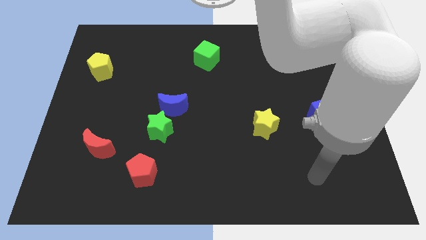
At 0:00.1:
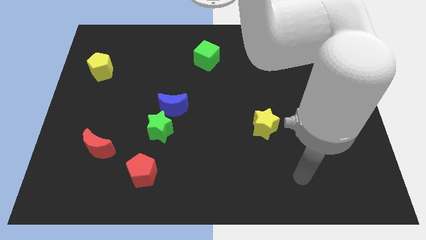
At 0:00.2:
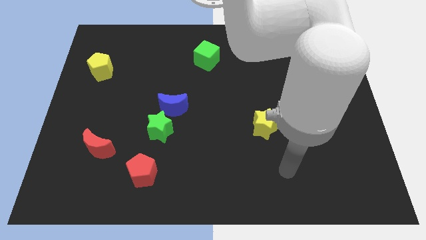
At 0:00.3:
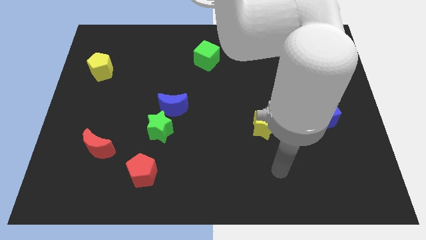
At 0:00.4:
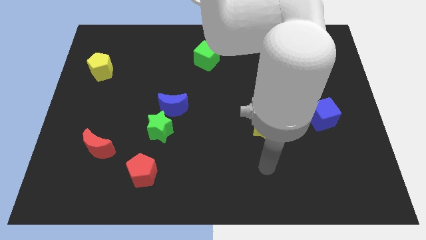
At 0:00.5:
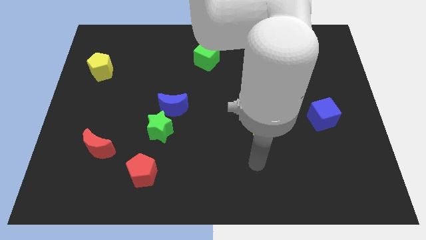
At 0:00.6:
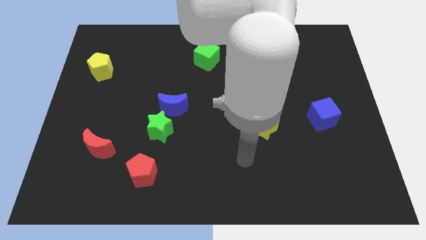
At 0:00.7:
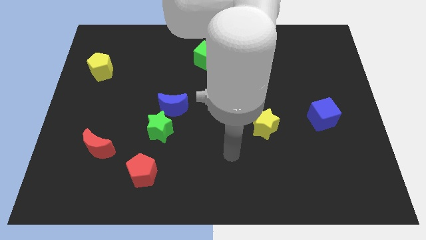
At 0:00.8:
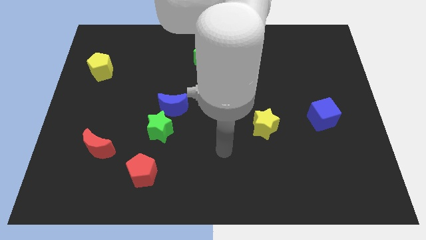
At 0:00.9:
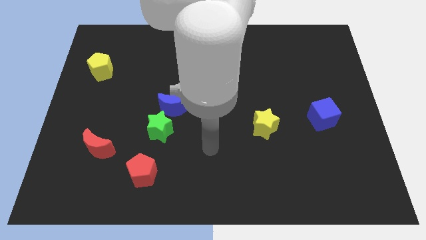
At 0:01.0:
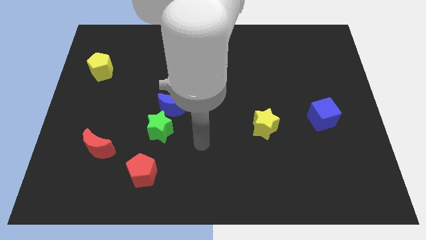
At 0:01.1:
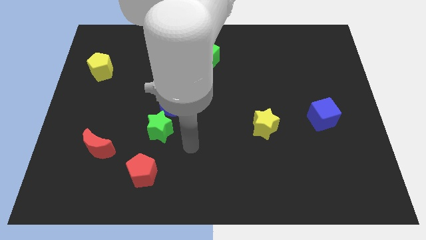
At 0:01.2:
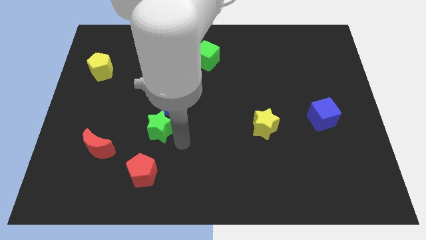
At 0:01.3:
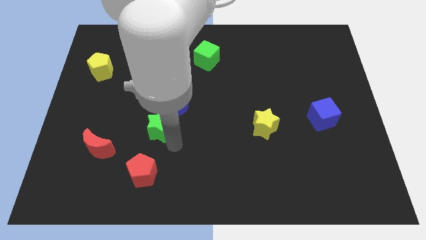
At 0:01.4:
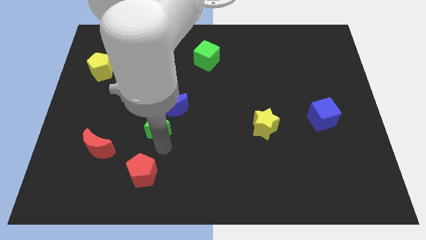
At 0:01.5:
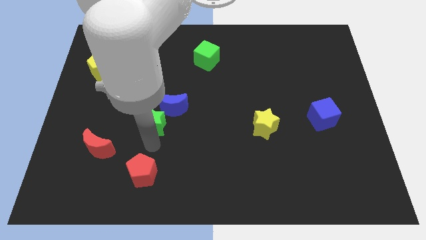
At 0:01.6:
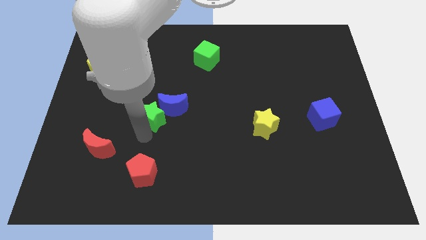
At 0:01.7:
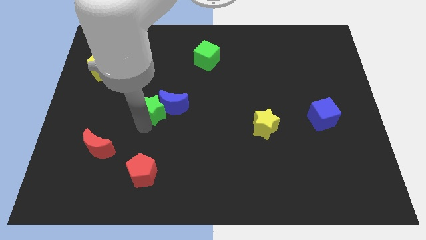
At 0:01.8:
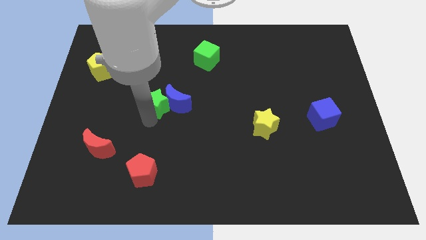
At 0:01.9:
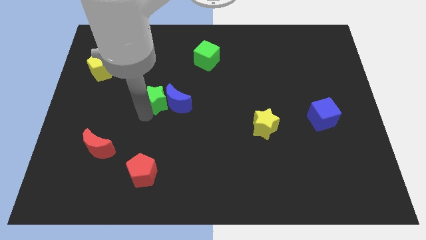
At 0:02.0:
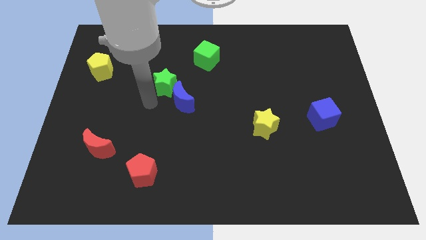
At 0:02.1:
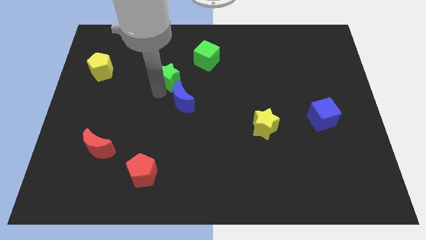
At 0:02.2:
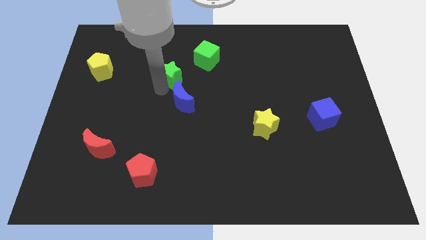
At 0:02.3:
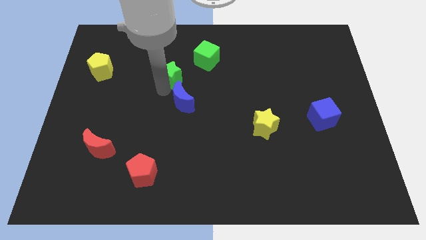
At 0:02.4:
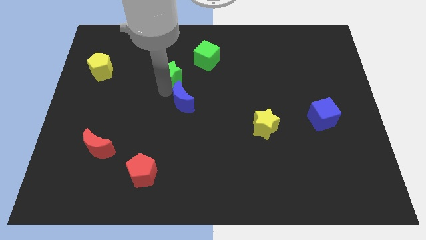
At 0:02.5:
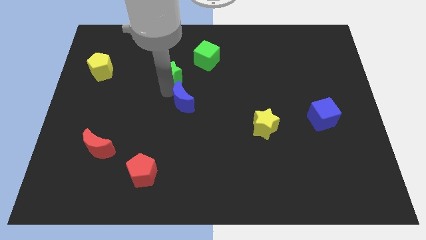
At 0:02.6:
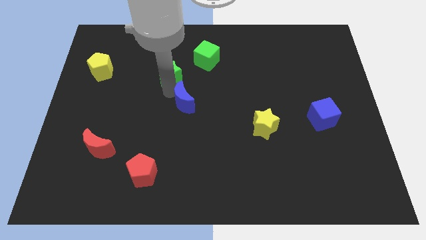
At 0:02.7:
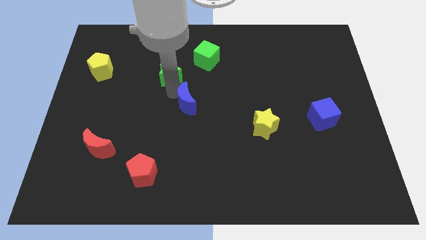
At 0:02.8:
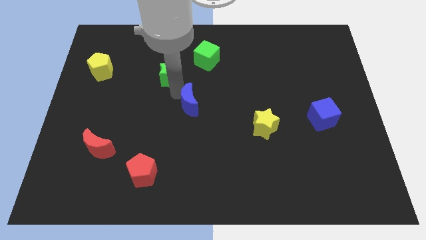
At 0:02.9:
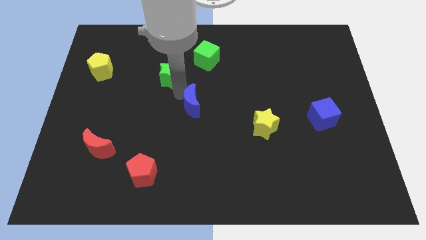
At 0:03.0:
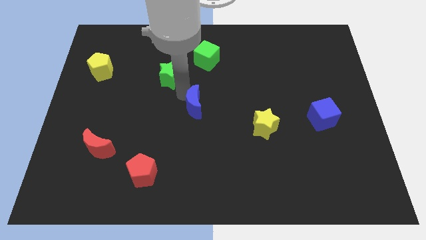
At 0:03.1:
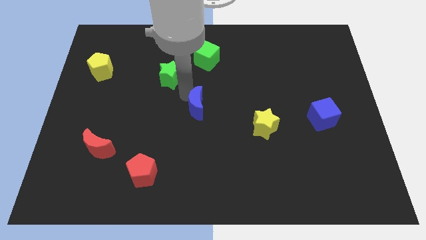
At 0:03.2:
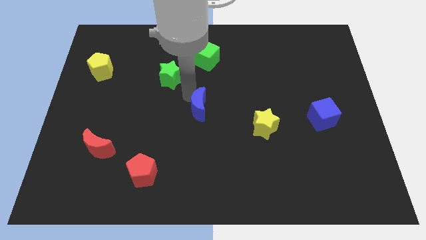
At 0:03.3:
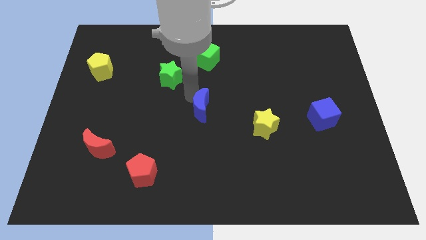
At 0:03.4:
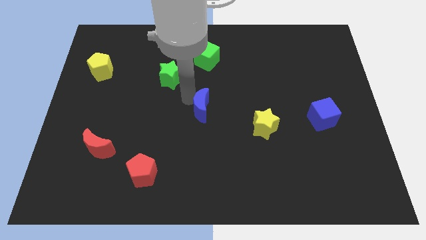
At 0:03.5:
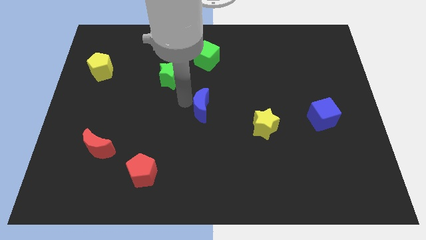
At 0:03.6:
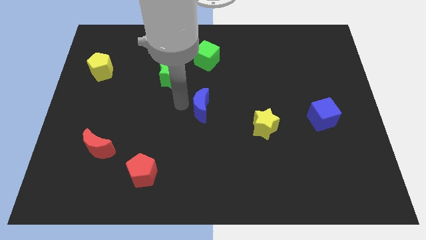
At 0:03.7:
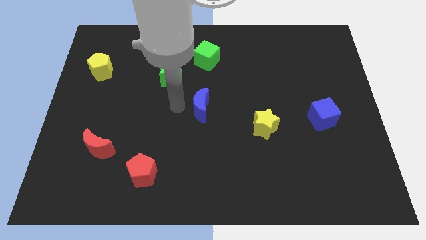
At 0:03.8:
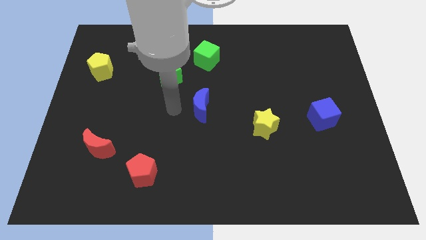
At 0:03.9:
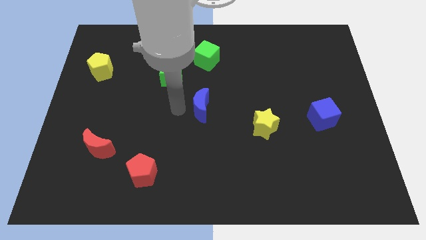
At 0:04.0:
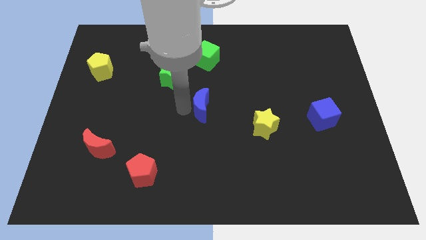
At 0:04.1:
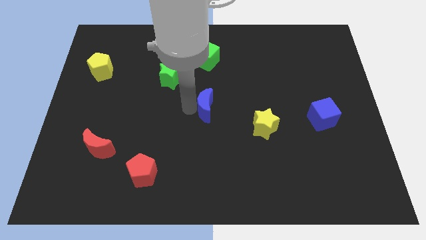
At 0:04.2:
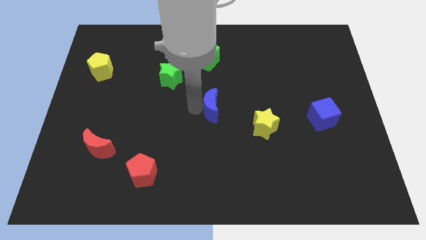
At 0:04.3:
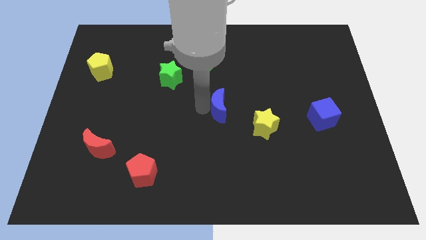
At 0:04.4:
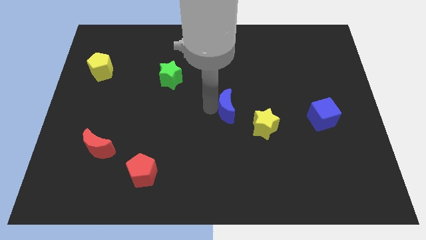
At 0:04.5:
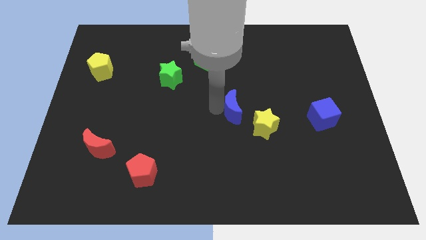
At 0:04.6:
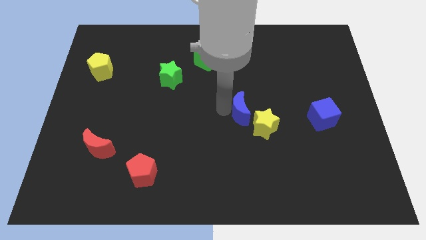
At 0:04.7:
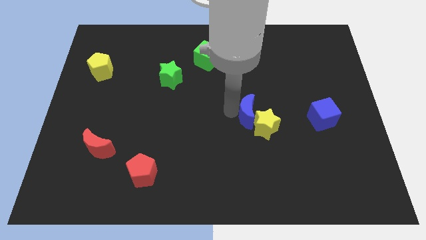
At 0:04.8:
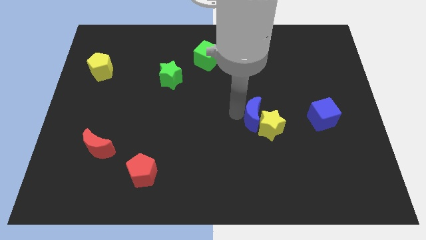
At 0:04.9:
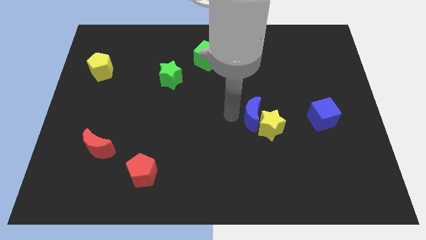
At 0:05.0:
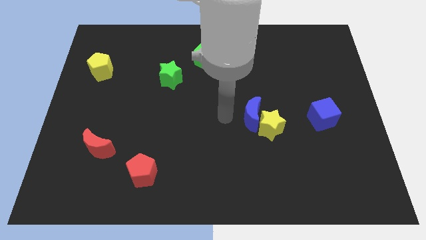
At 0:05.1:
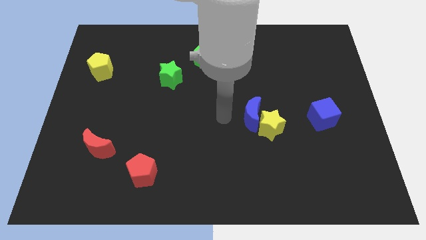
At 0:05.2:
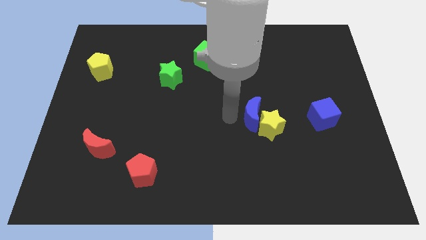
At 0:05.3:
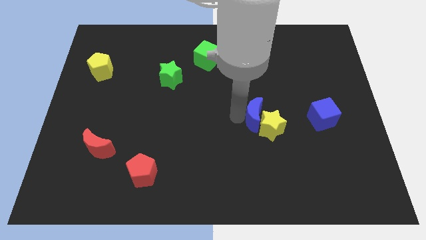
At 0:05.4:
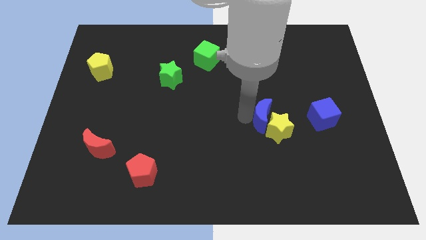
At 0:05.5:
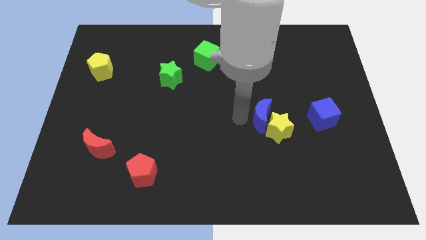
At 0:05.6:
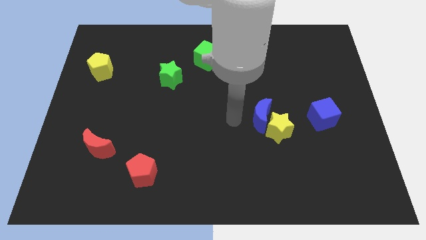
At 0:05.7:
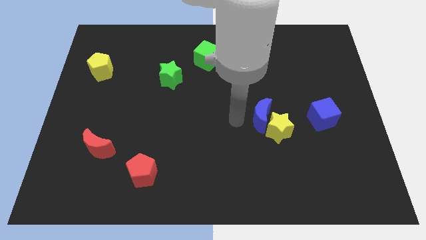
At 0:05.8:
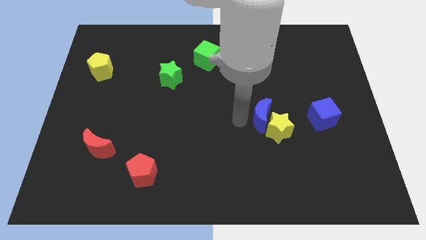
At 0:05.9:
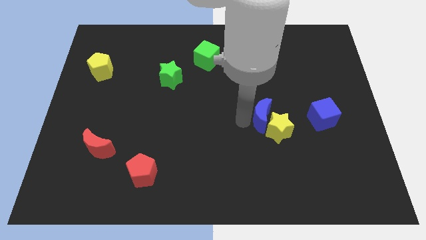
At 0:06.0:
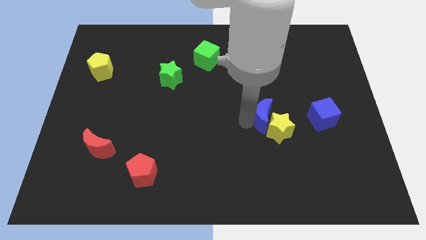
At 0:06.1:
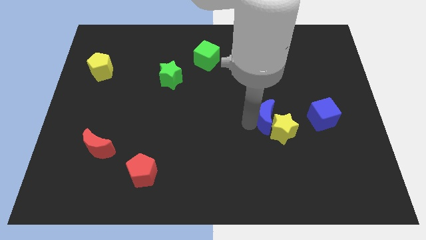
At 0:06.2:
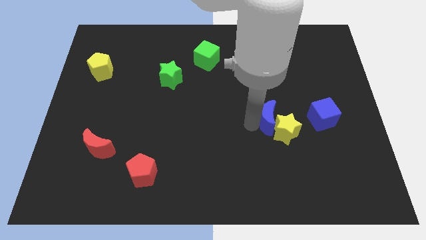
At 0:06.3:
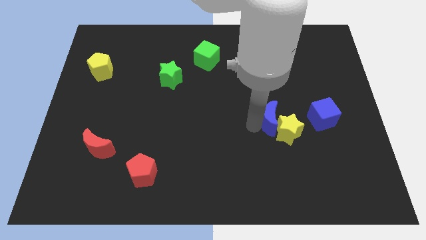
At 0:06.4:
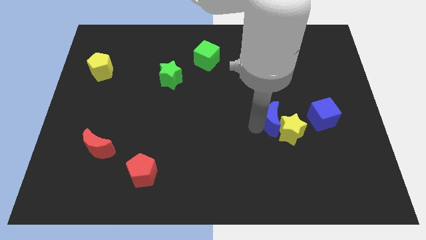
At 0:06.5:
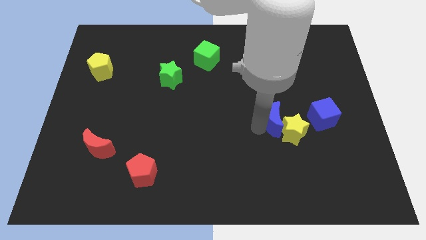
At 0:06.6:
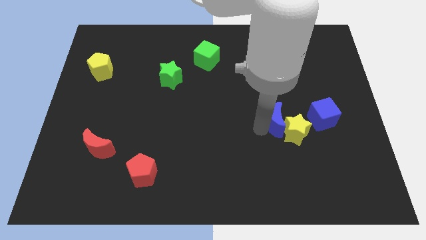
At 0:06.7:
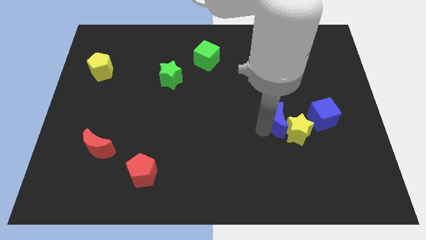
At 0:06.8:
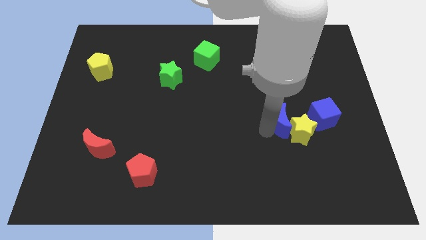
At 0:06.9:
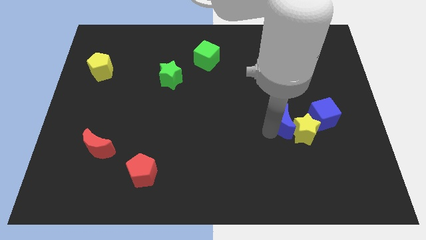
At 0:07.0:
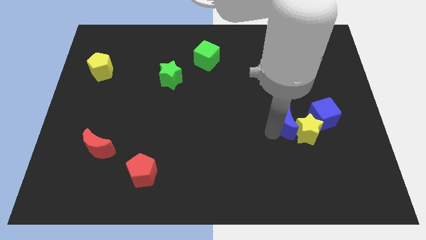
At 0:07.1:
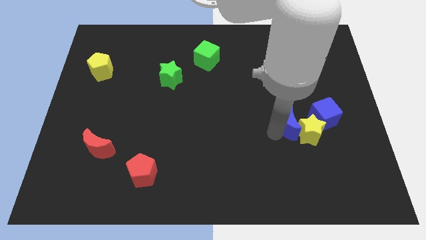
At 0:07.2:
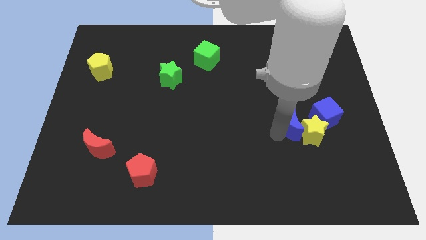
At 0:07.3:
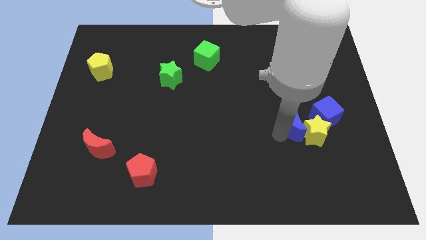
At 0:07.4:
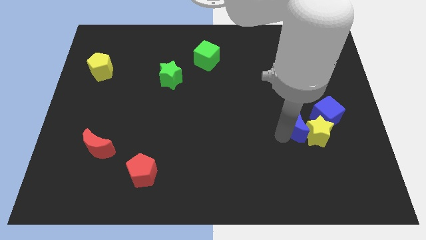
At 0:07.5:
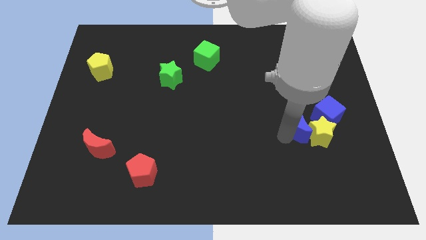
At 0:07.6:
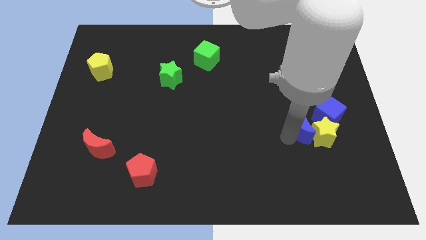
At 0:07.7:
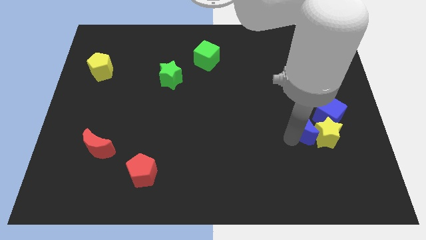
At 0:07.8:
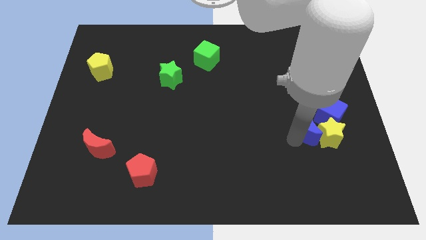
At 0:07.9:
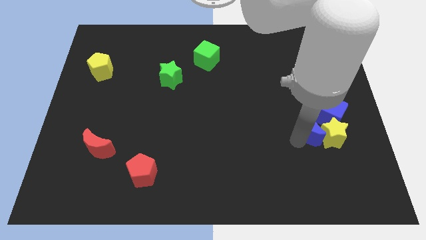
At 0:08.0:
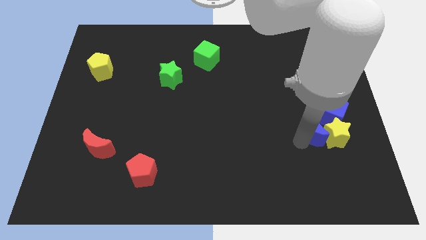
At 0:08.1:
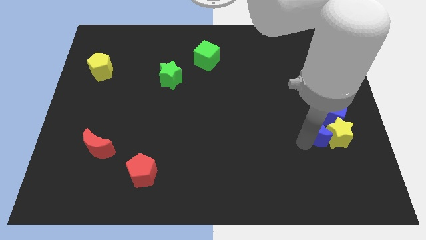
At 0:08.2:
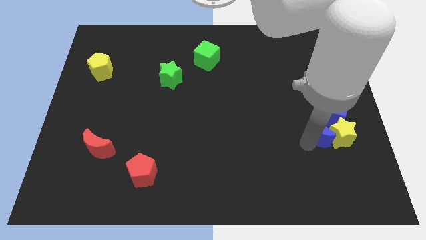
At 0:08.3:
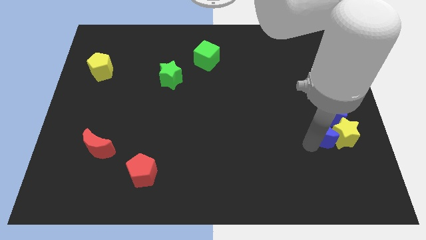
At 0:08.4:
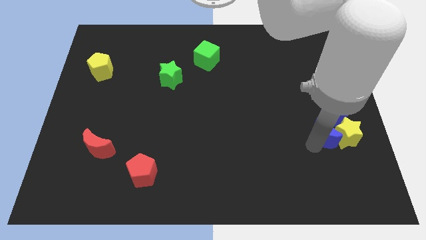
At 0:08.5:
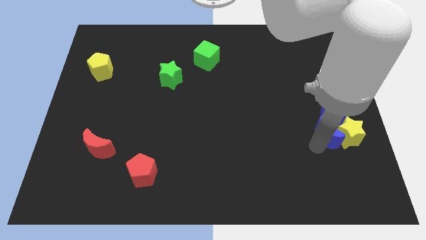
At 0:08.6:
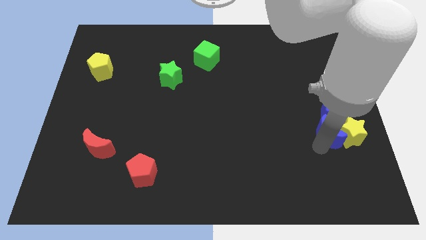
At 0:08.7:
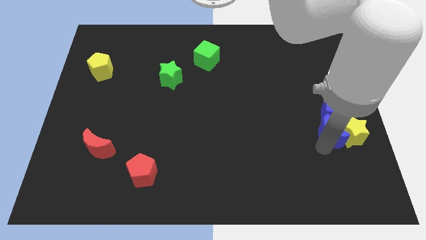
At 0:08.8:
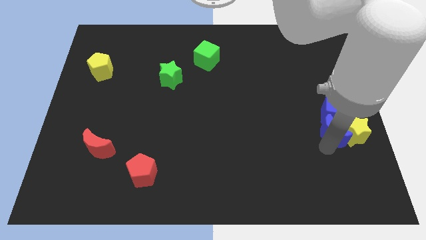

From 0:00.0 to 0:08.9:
slide the blue moon towards the blue cube
